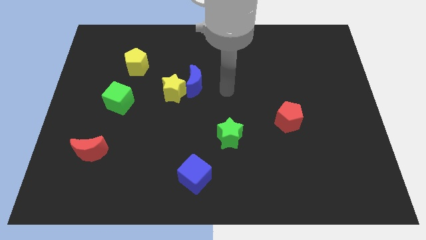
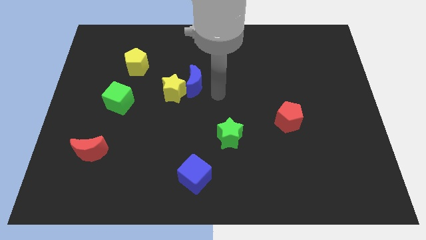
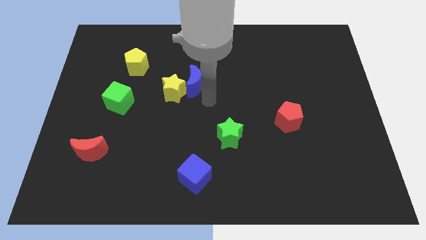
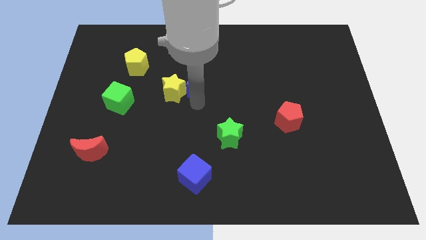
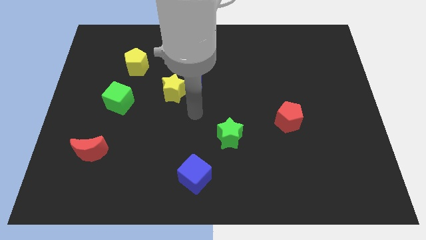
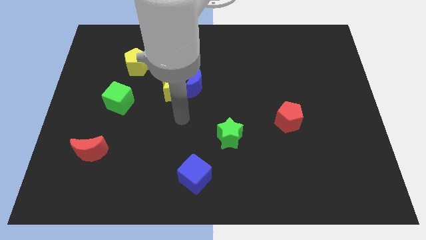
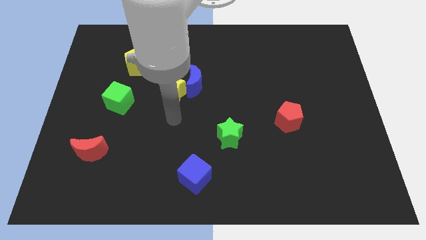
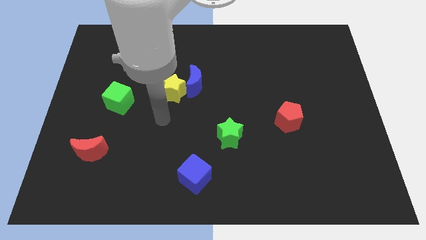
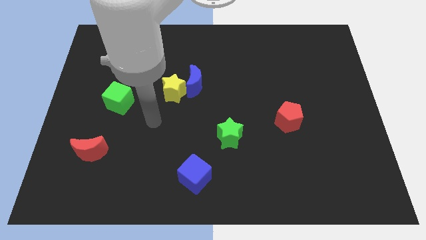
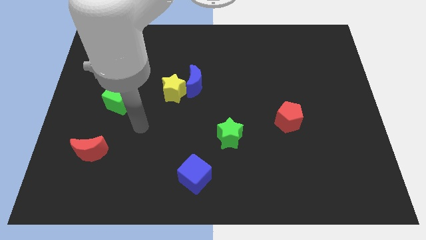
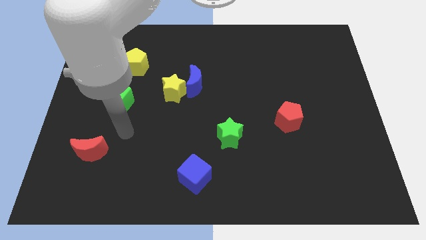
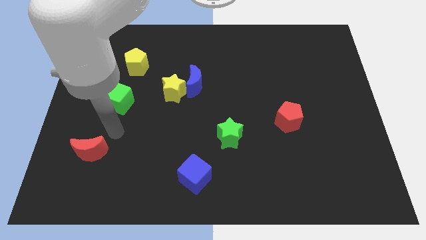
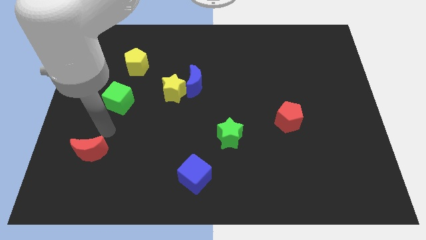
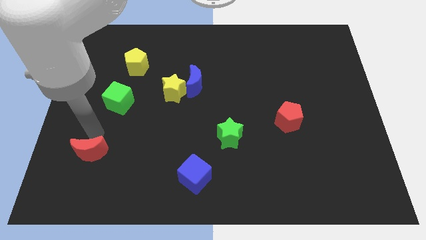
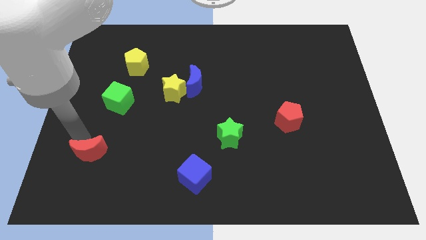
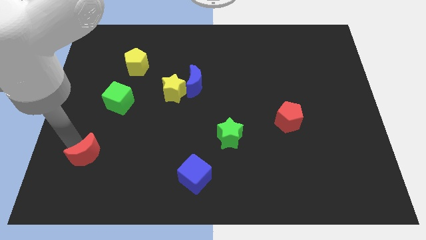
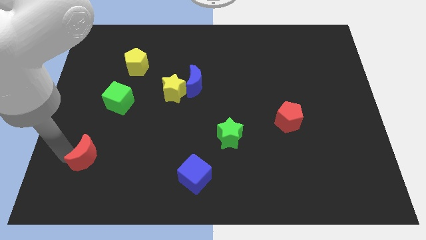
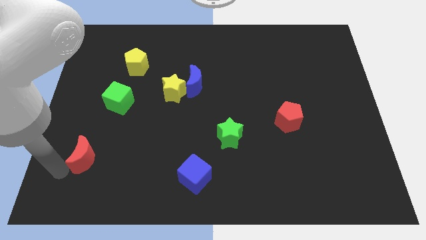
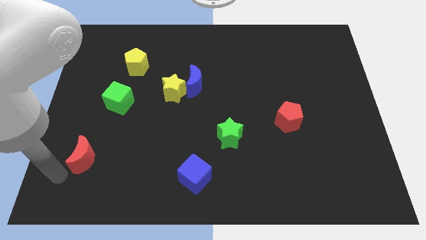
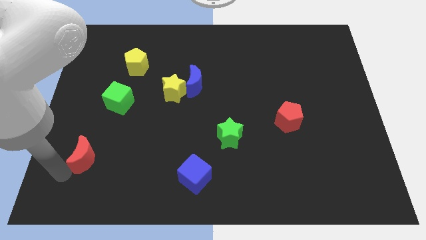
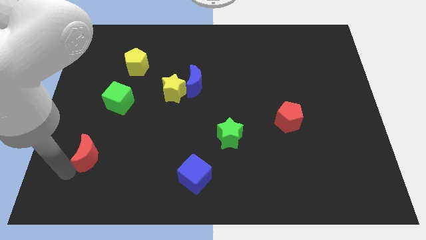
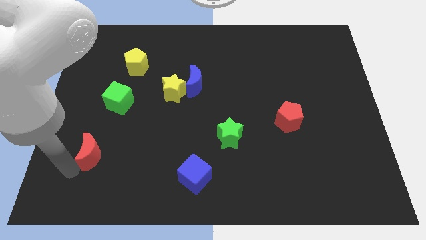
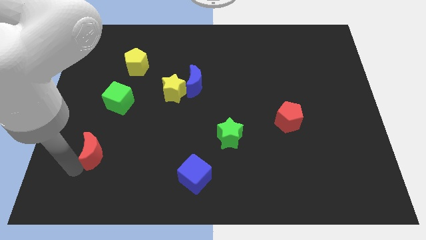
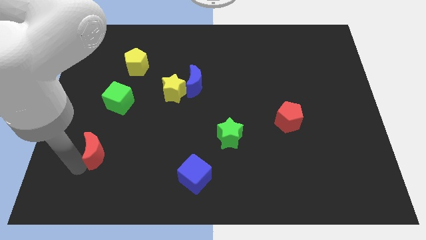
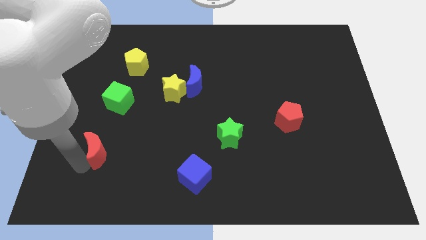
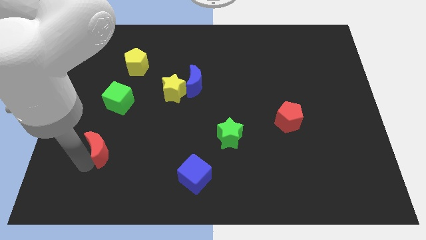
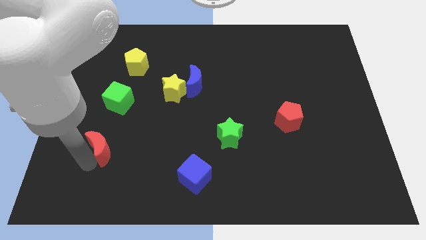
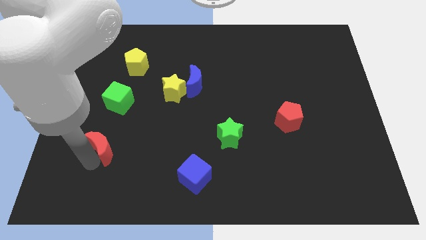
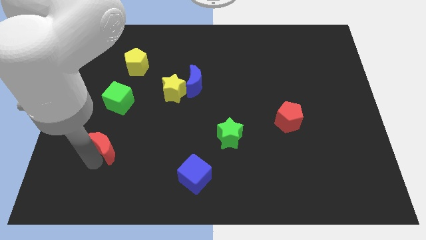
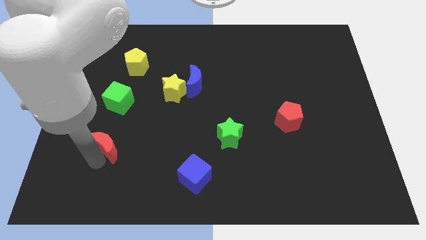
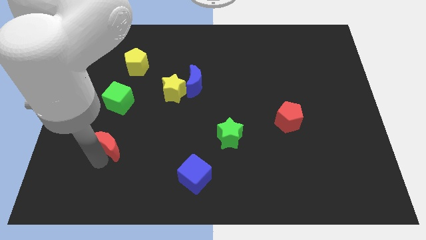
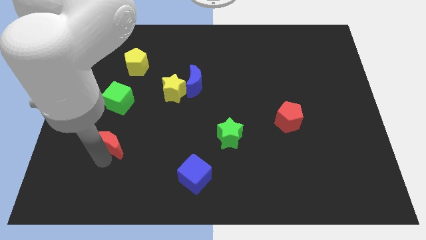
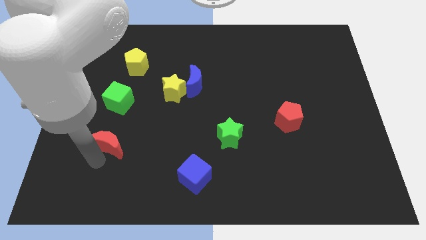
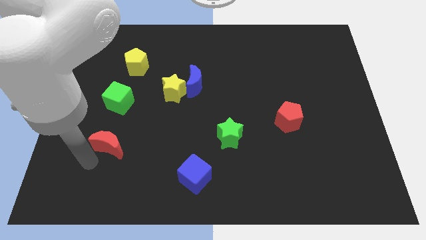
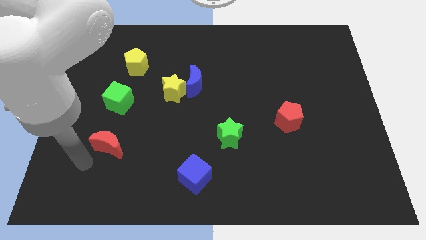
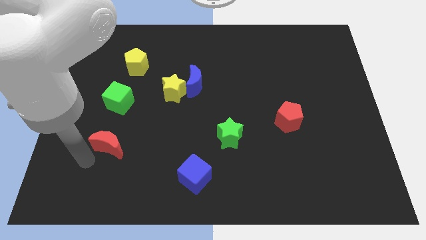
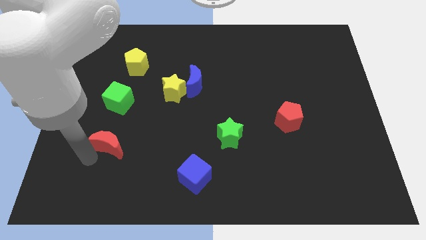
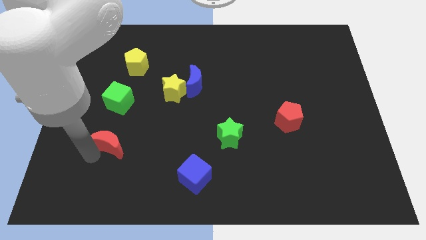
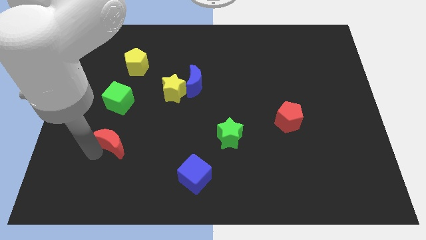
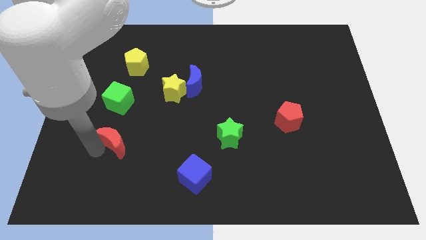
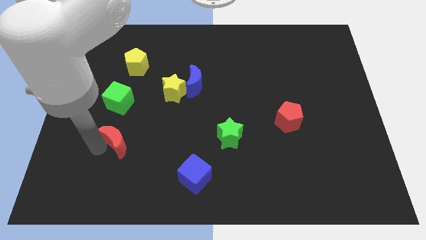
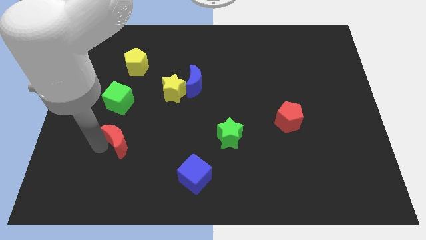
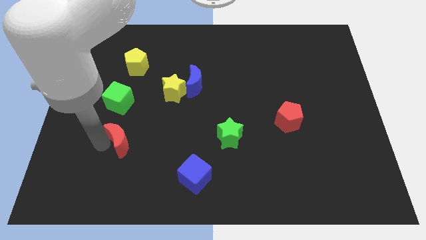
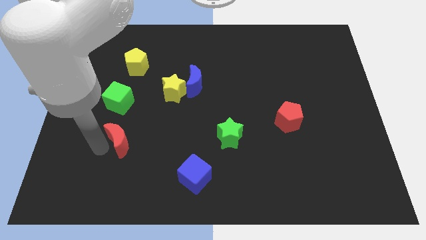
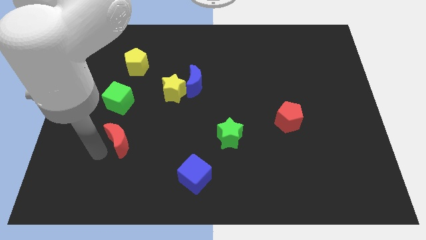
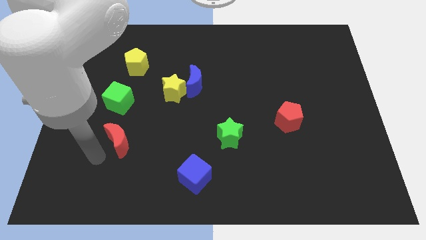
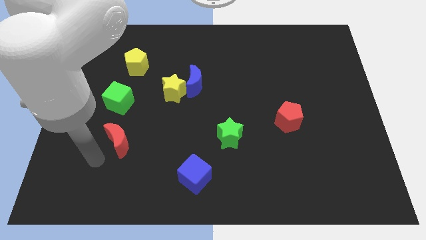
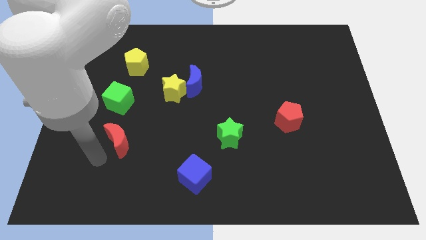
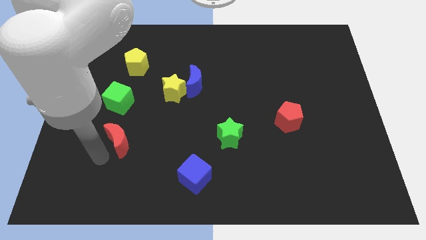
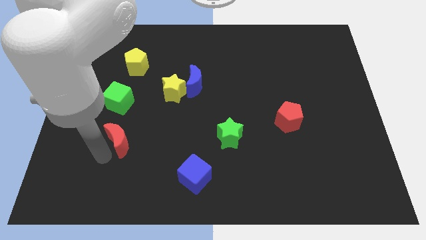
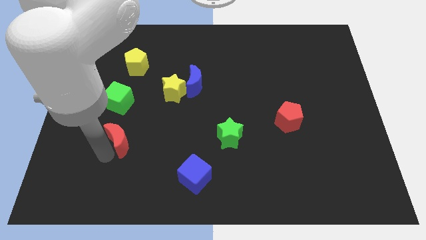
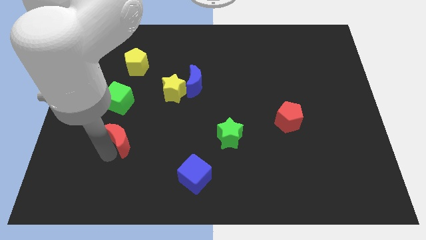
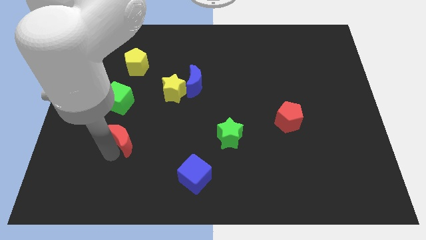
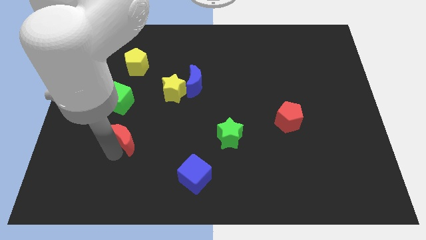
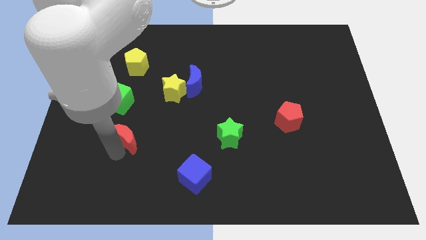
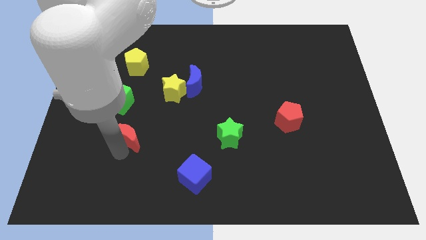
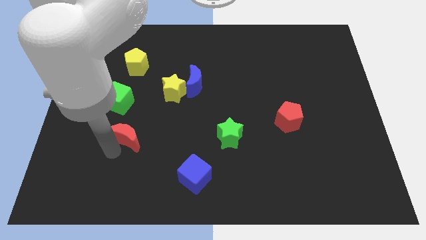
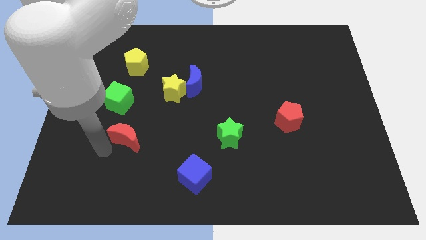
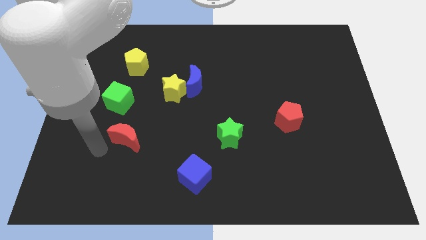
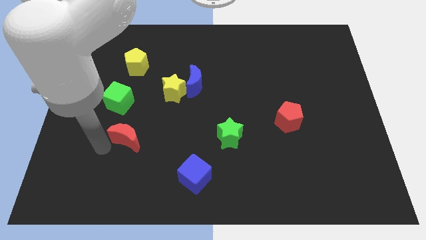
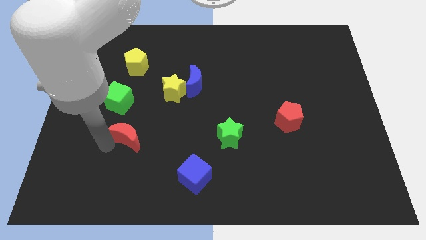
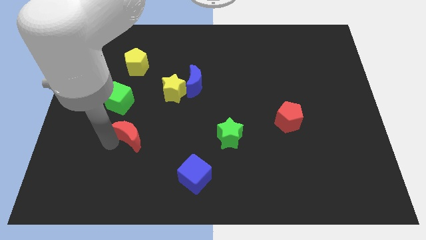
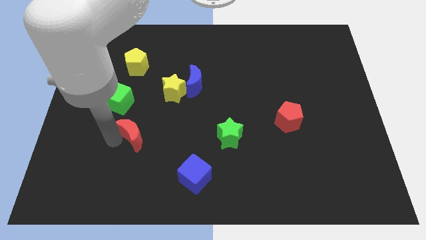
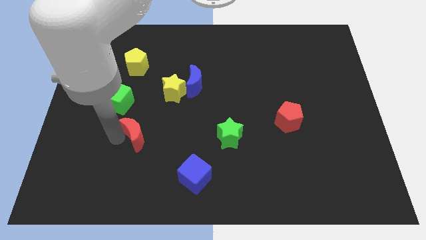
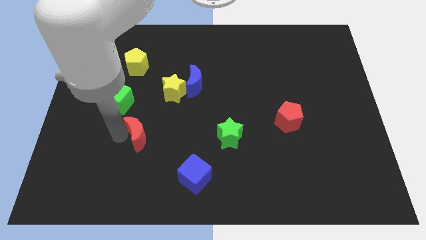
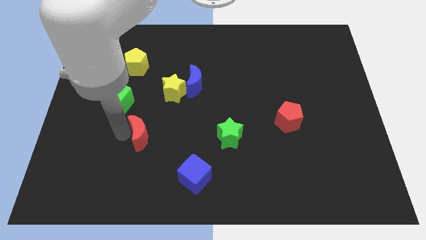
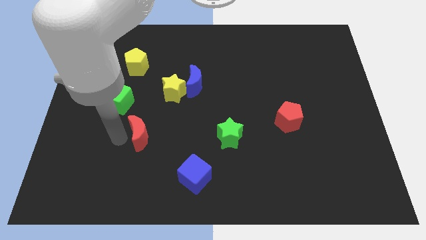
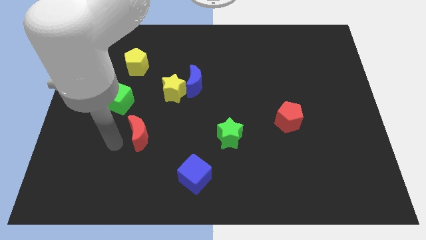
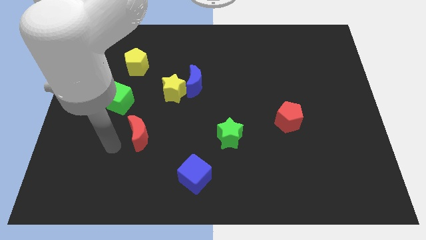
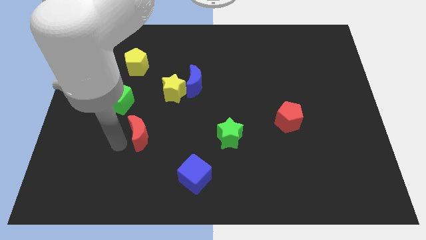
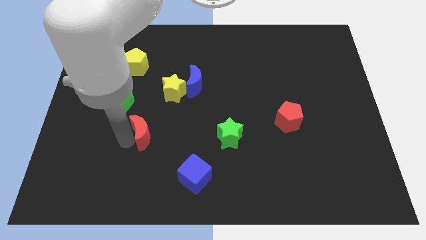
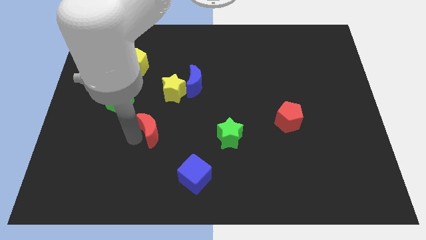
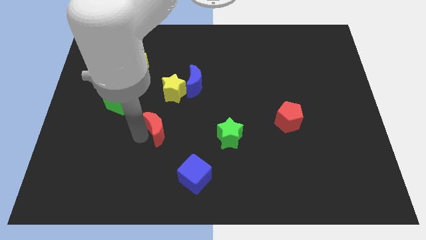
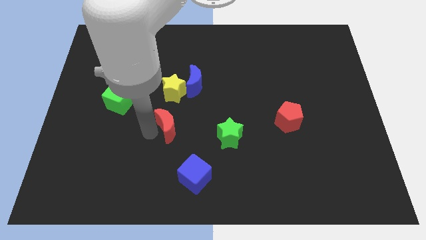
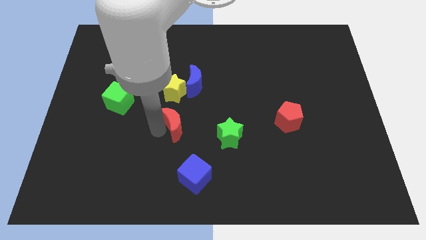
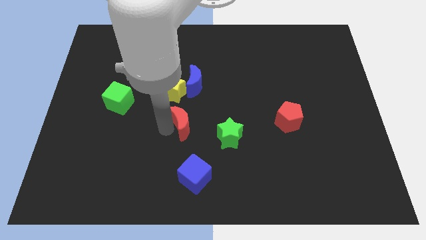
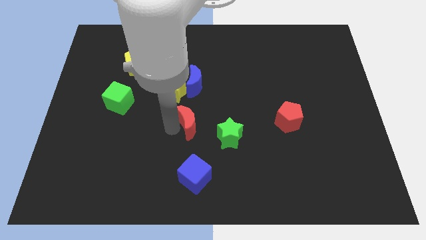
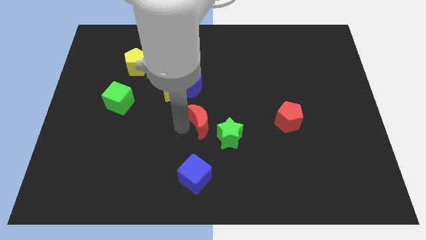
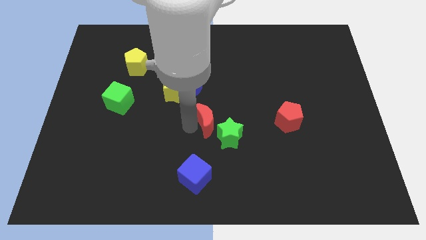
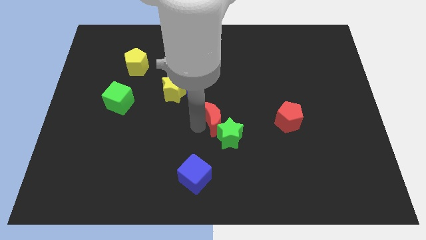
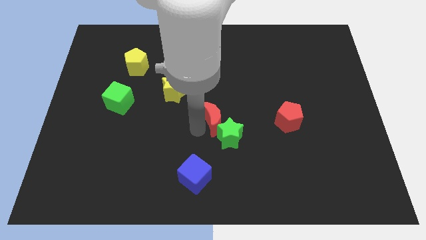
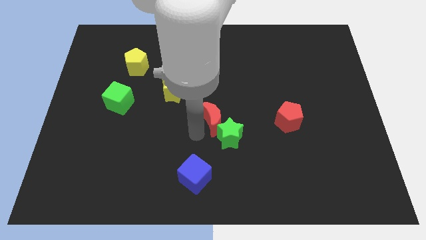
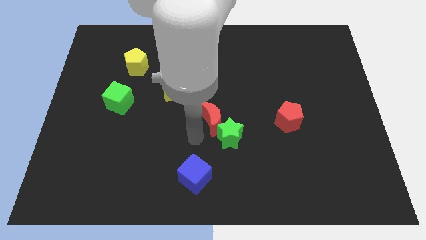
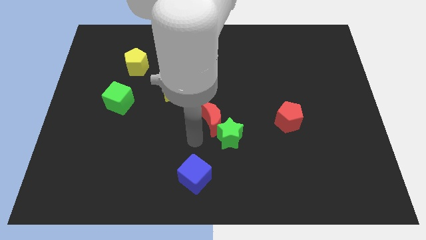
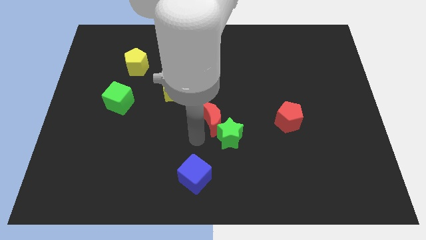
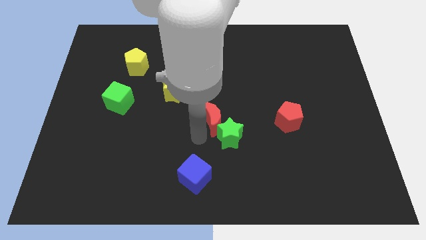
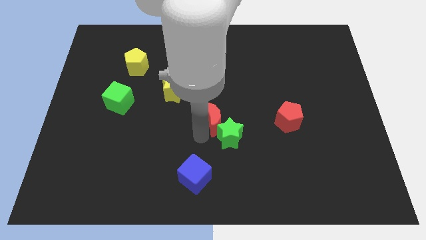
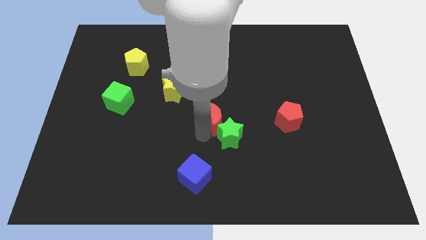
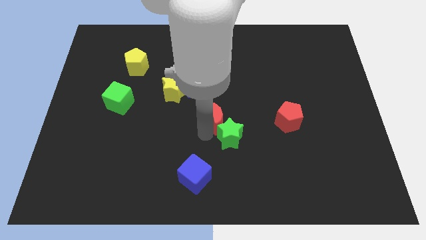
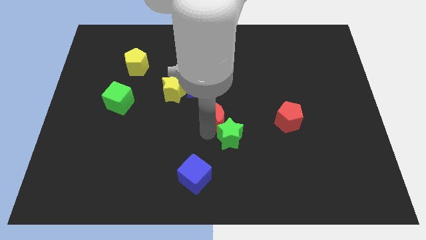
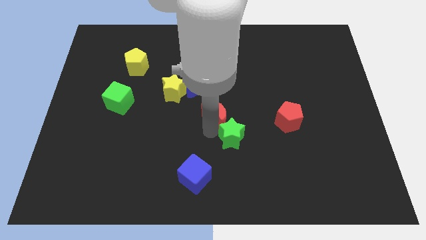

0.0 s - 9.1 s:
slide the red moon to the left of the red pentagon
